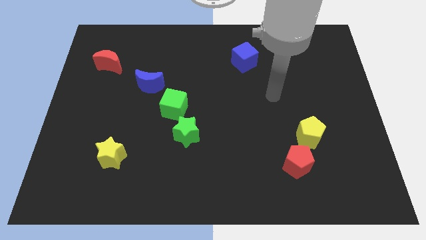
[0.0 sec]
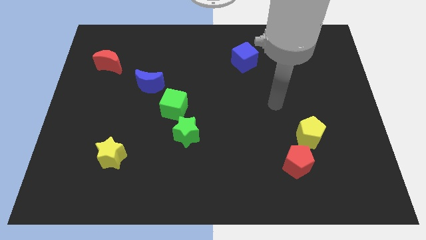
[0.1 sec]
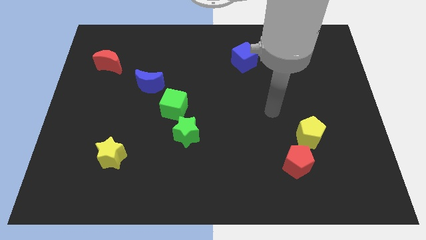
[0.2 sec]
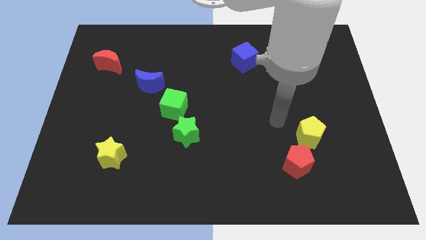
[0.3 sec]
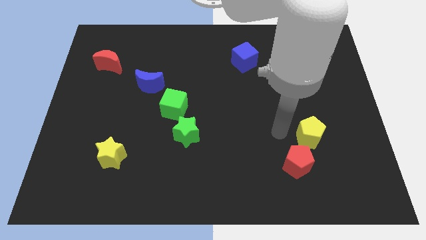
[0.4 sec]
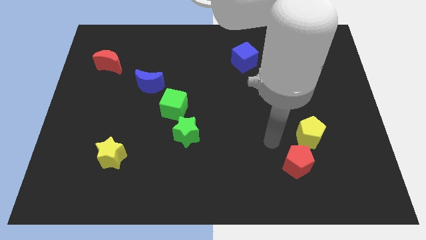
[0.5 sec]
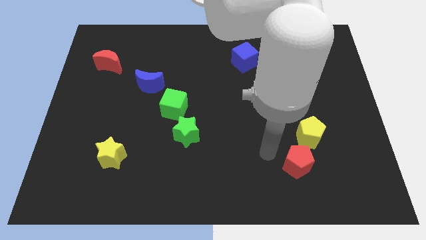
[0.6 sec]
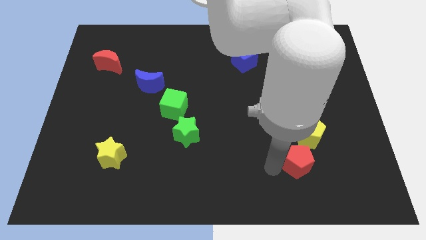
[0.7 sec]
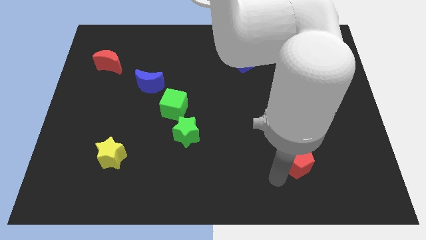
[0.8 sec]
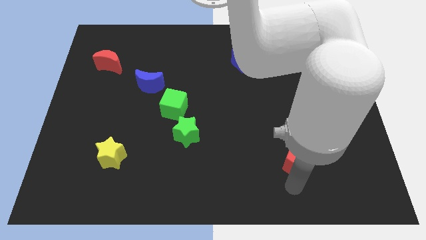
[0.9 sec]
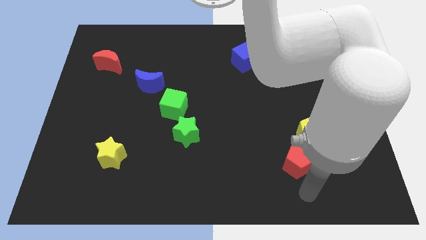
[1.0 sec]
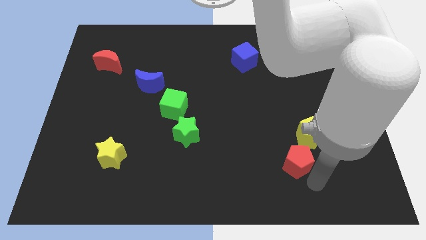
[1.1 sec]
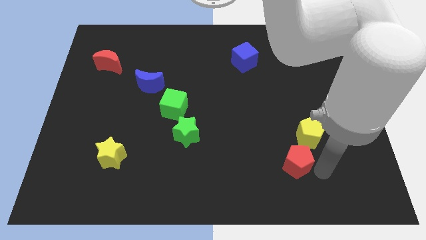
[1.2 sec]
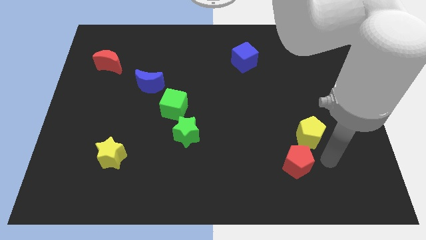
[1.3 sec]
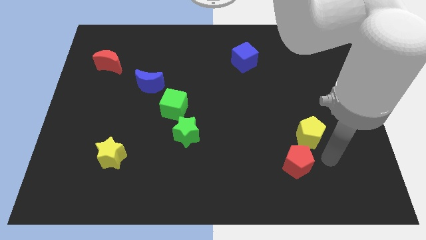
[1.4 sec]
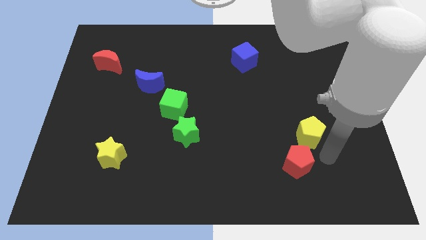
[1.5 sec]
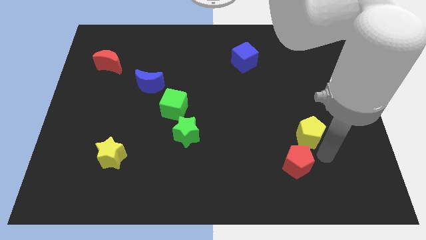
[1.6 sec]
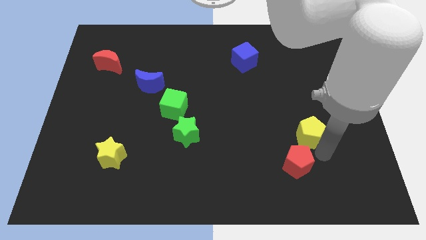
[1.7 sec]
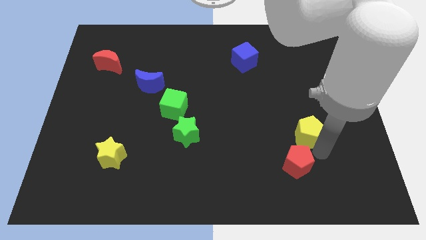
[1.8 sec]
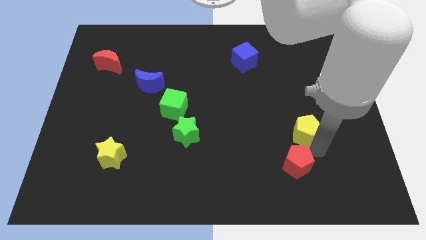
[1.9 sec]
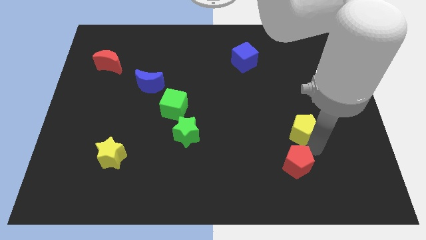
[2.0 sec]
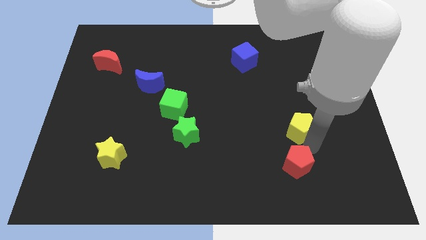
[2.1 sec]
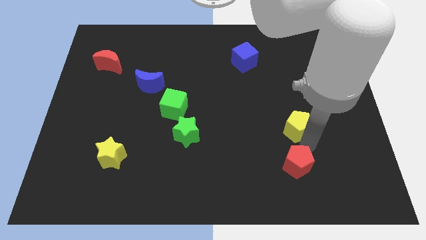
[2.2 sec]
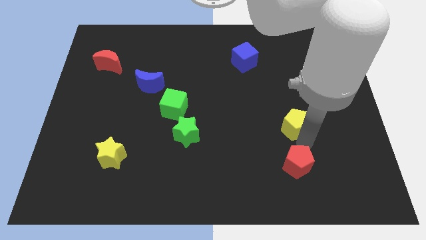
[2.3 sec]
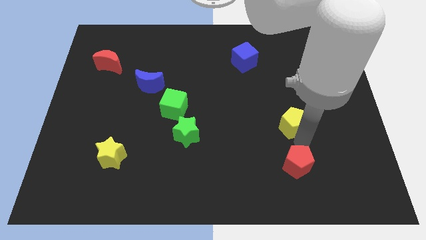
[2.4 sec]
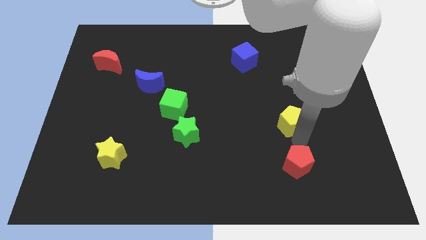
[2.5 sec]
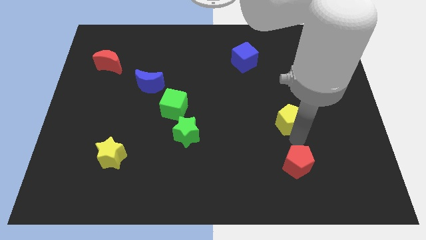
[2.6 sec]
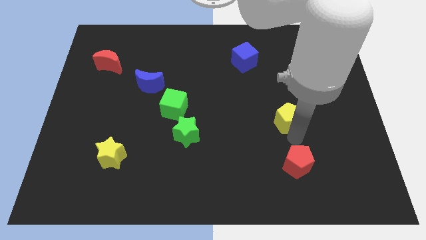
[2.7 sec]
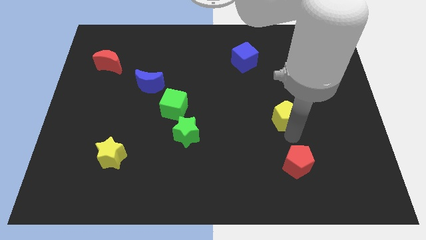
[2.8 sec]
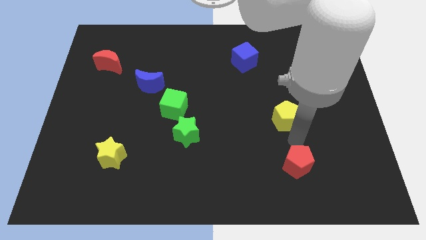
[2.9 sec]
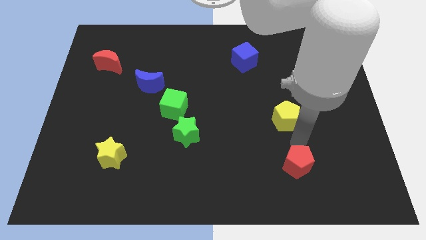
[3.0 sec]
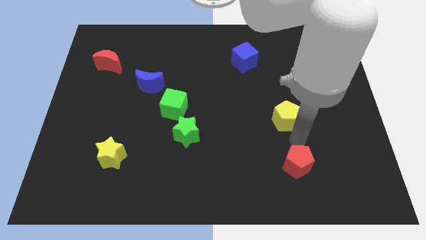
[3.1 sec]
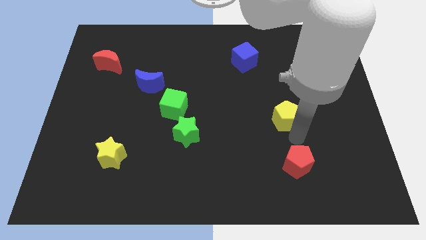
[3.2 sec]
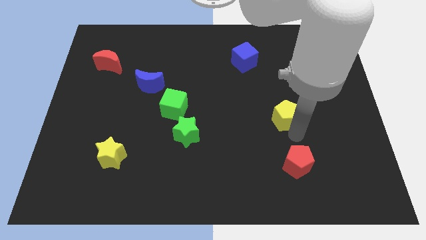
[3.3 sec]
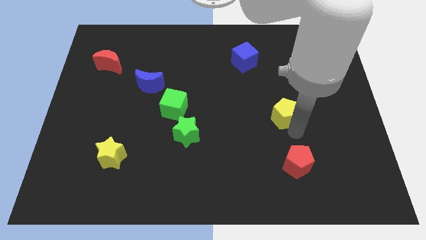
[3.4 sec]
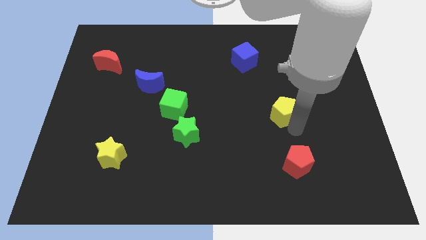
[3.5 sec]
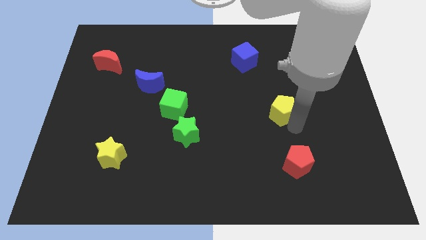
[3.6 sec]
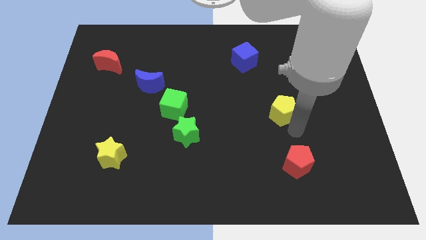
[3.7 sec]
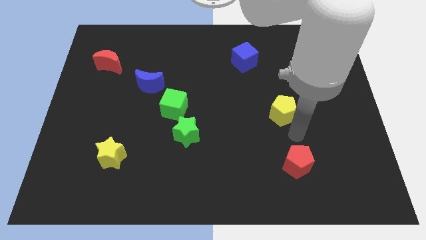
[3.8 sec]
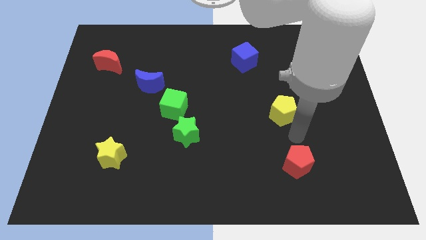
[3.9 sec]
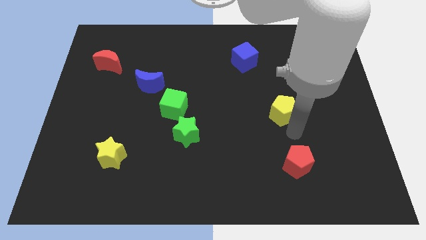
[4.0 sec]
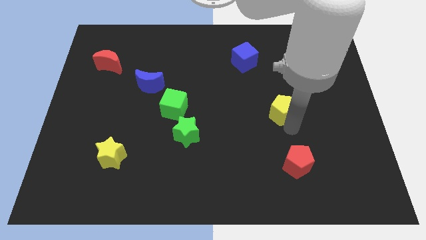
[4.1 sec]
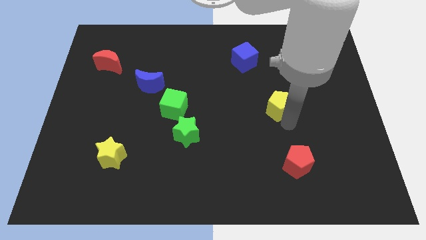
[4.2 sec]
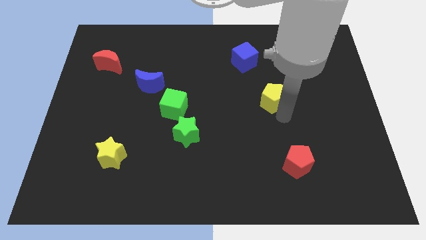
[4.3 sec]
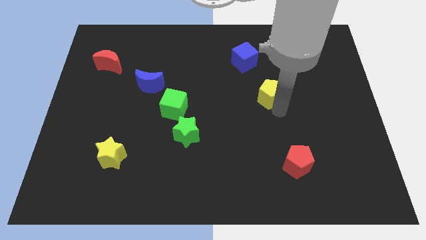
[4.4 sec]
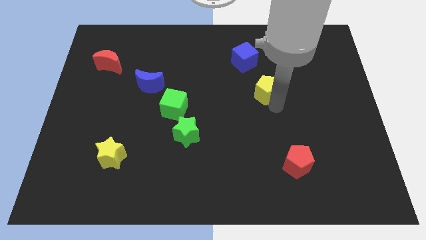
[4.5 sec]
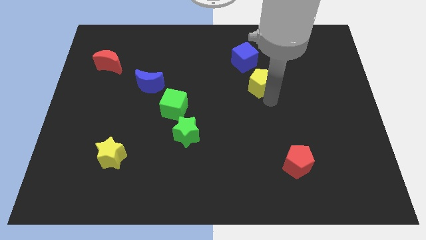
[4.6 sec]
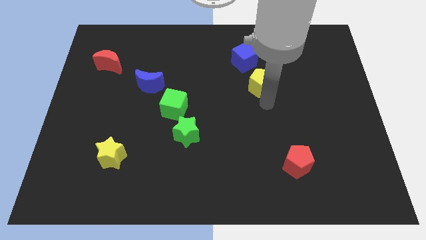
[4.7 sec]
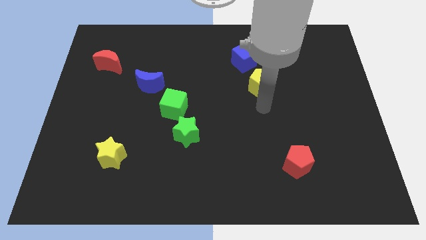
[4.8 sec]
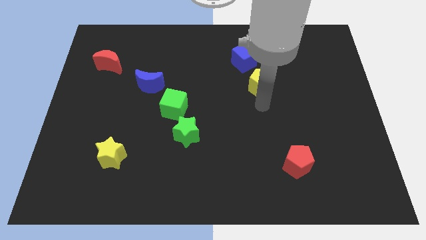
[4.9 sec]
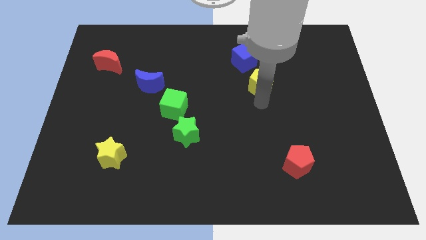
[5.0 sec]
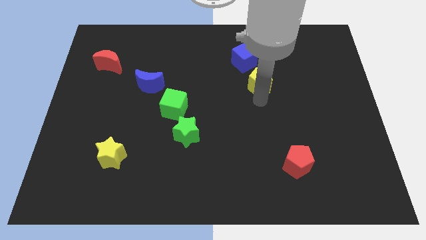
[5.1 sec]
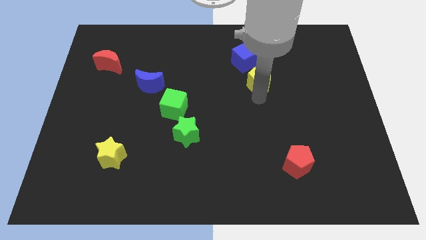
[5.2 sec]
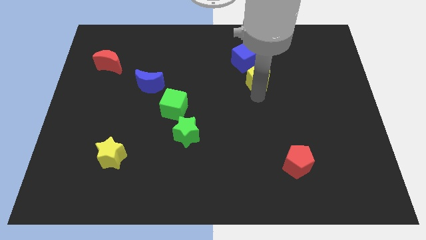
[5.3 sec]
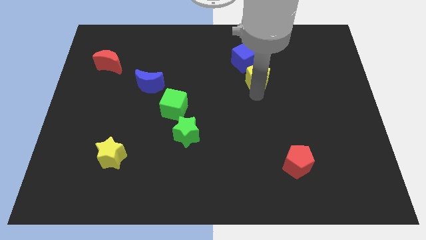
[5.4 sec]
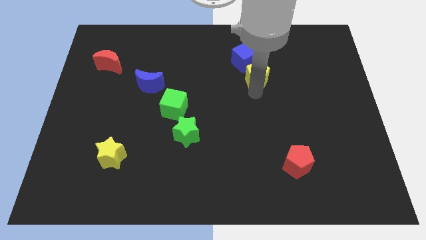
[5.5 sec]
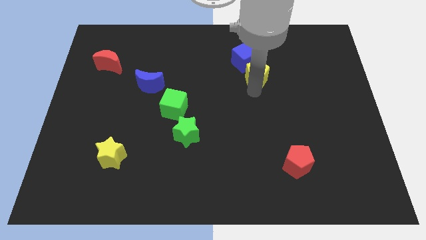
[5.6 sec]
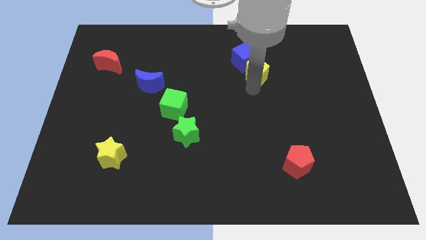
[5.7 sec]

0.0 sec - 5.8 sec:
push the yellow pentagon towards the blue cube

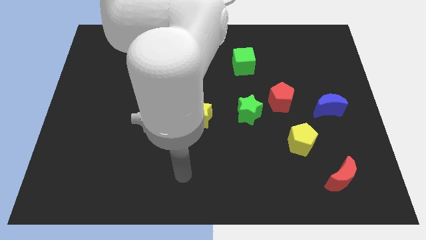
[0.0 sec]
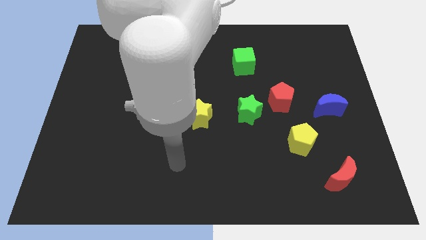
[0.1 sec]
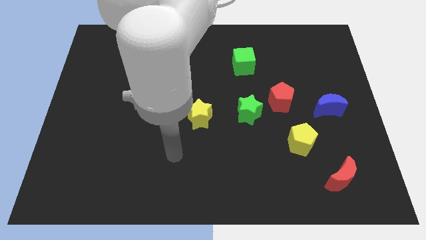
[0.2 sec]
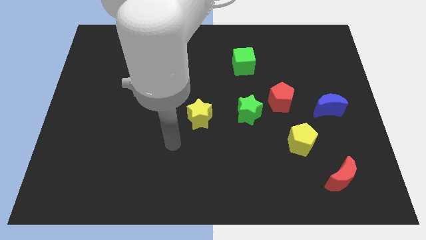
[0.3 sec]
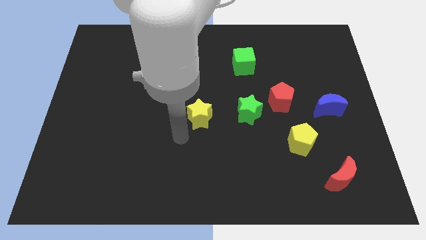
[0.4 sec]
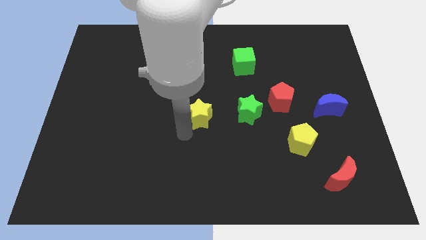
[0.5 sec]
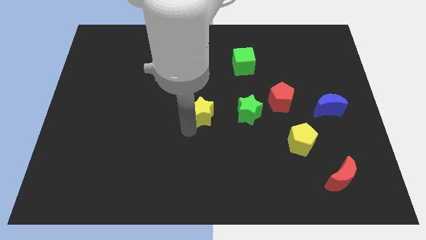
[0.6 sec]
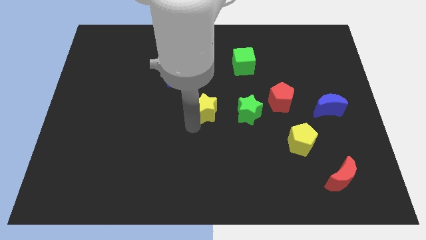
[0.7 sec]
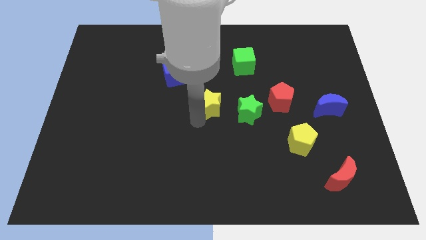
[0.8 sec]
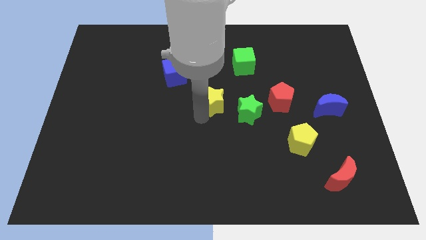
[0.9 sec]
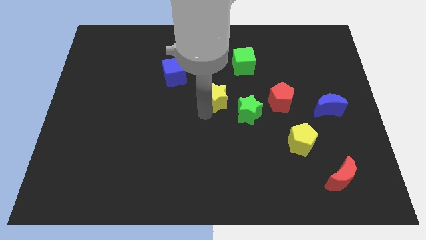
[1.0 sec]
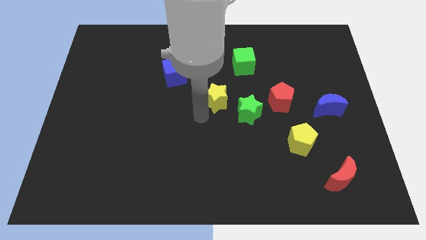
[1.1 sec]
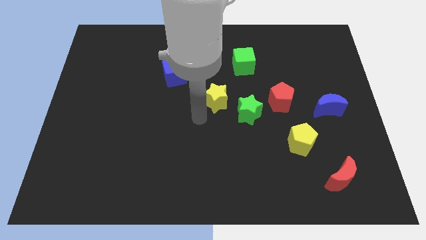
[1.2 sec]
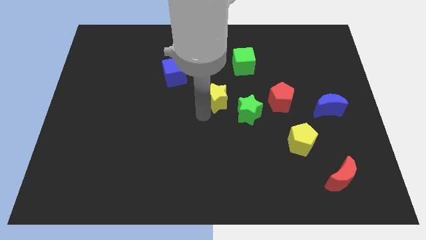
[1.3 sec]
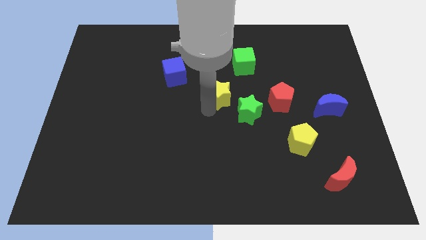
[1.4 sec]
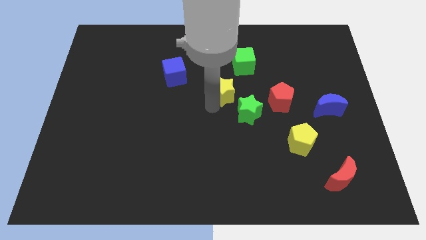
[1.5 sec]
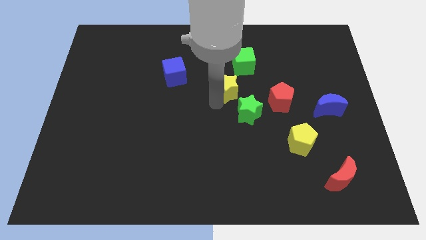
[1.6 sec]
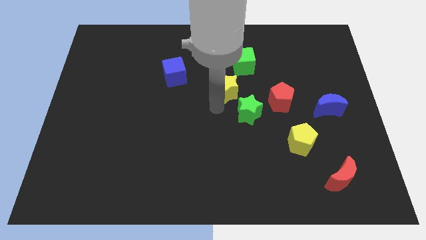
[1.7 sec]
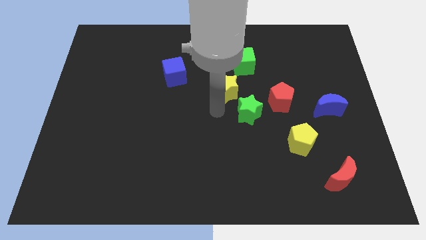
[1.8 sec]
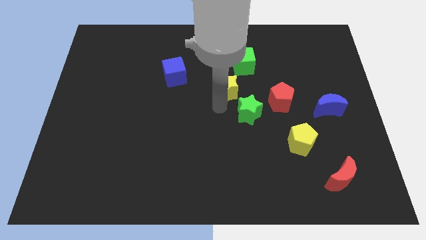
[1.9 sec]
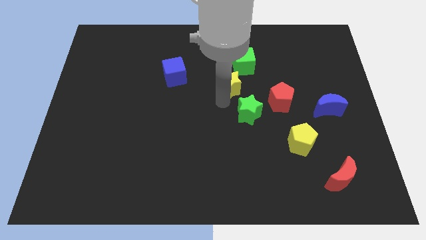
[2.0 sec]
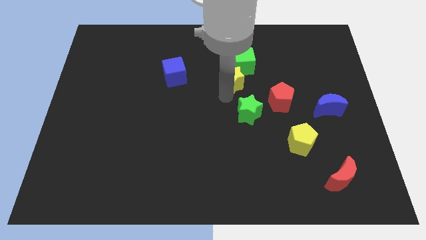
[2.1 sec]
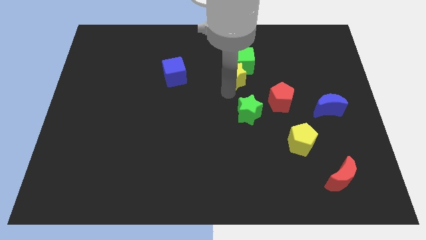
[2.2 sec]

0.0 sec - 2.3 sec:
put the yellow star towards the green cube
